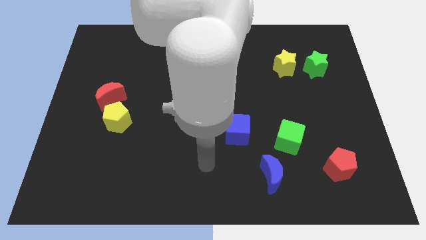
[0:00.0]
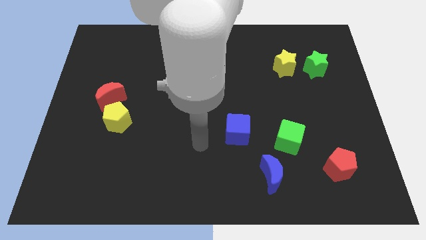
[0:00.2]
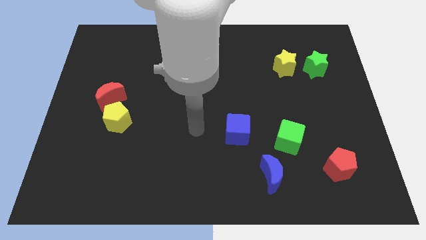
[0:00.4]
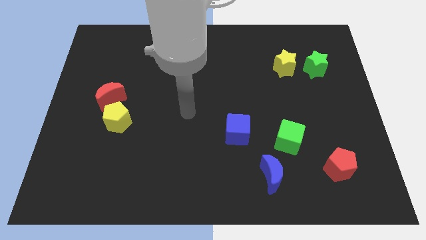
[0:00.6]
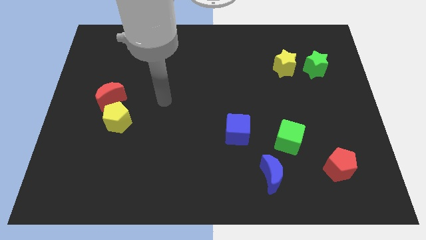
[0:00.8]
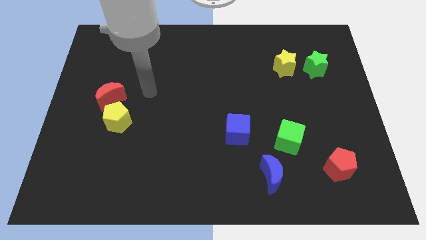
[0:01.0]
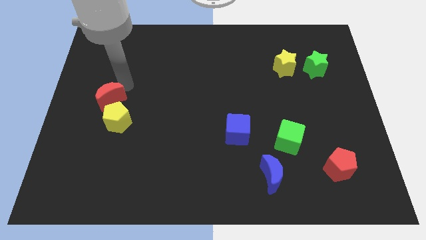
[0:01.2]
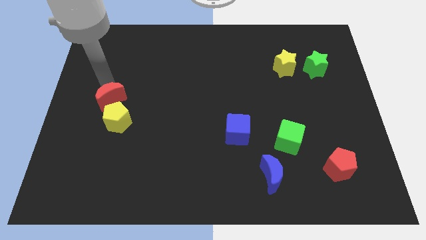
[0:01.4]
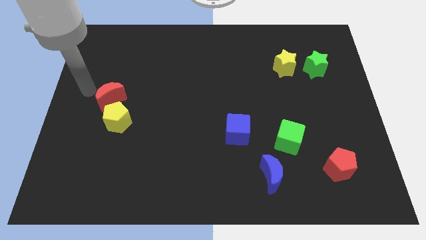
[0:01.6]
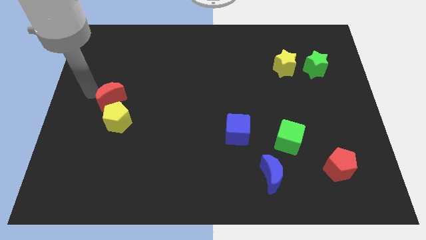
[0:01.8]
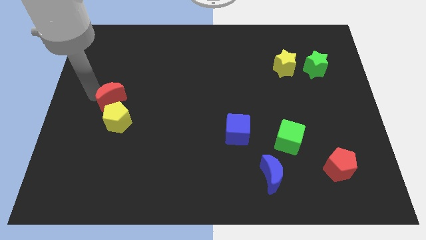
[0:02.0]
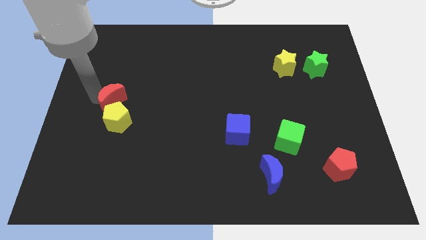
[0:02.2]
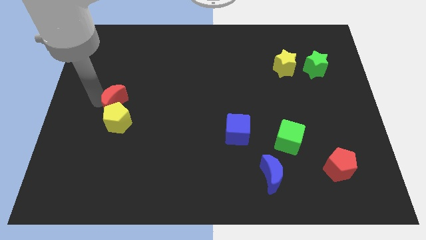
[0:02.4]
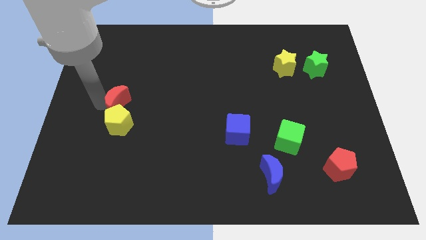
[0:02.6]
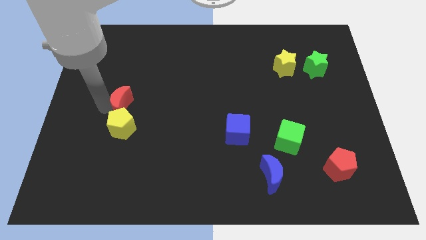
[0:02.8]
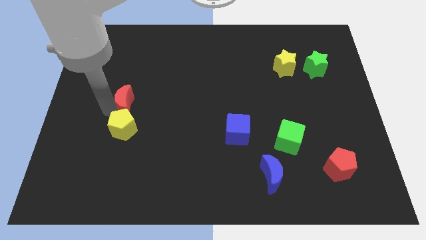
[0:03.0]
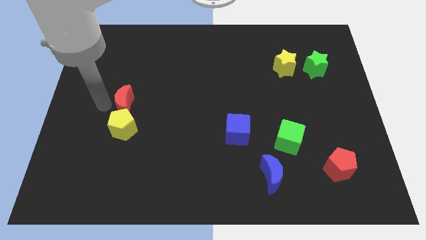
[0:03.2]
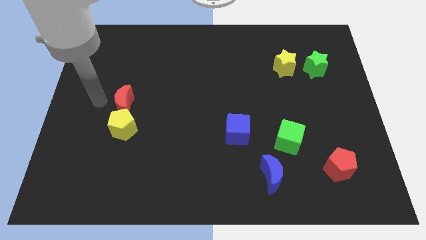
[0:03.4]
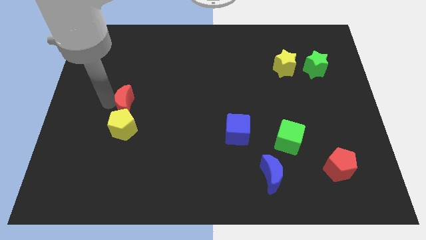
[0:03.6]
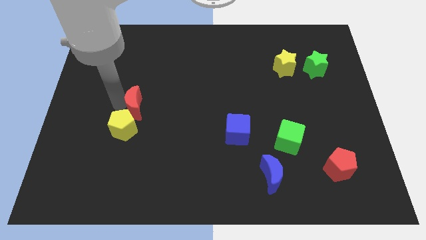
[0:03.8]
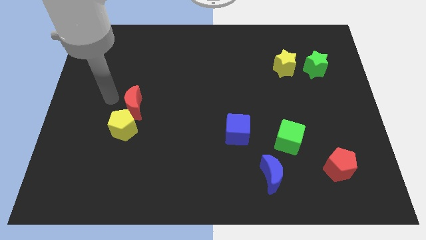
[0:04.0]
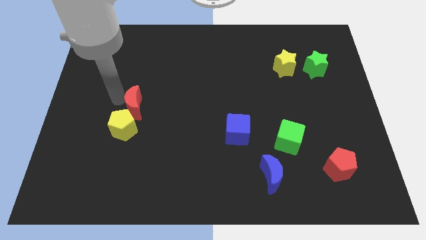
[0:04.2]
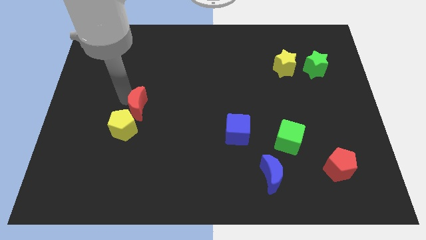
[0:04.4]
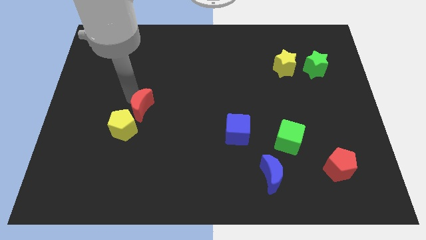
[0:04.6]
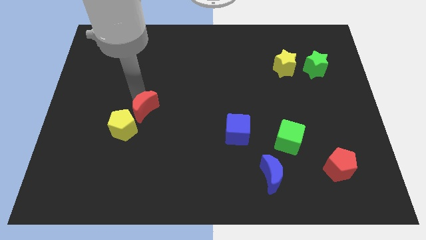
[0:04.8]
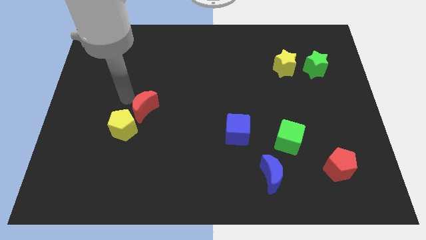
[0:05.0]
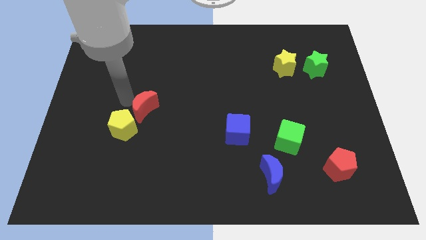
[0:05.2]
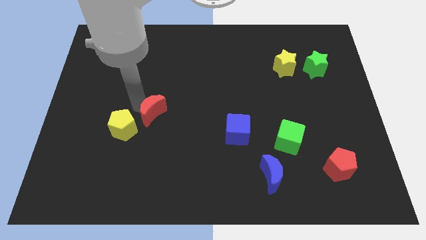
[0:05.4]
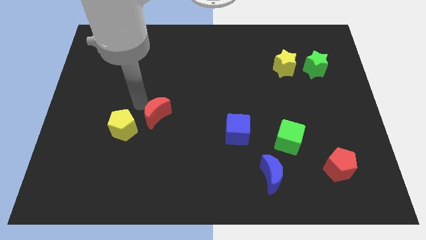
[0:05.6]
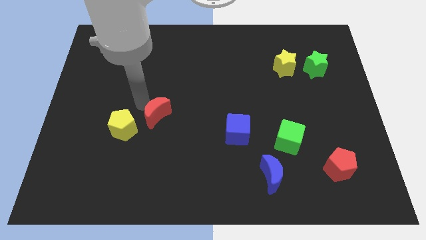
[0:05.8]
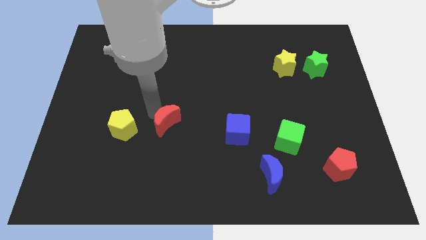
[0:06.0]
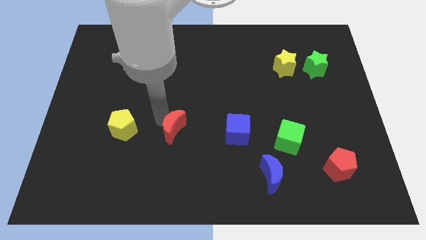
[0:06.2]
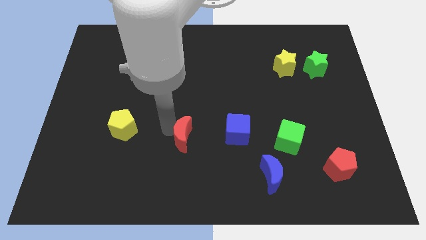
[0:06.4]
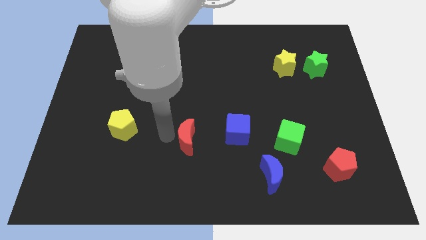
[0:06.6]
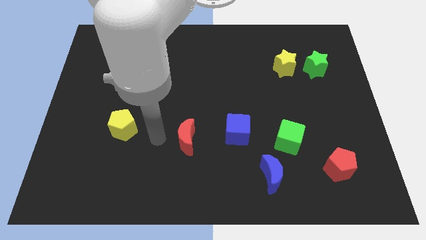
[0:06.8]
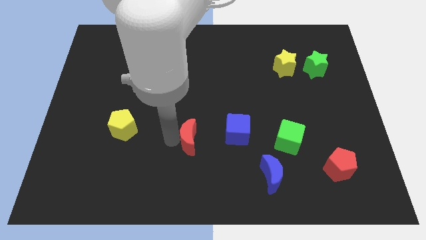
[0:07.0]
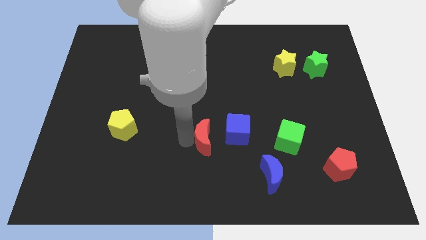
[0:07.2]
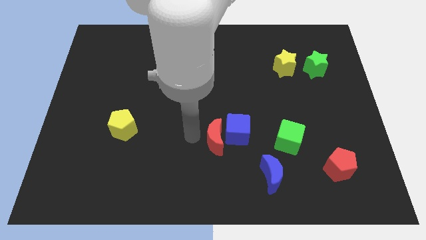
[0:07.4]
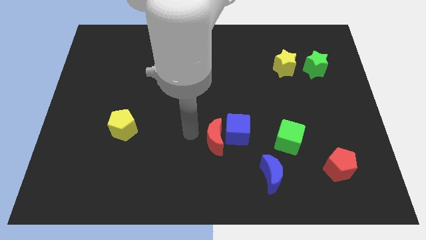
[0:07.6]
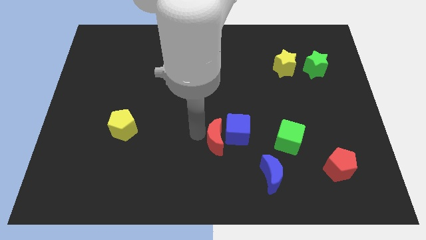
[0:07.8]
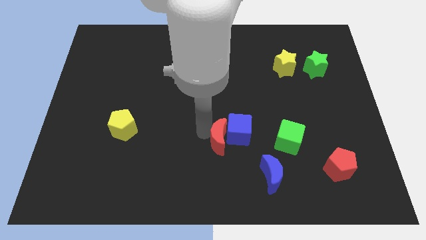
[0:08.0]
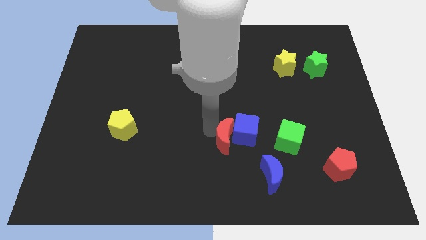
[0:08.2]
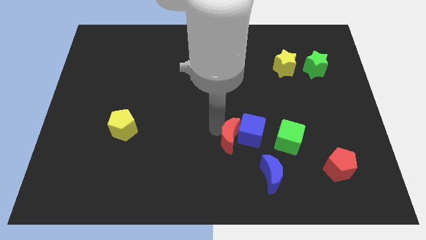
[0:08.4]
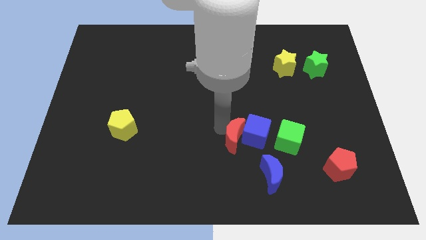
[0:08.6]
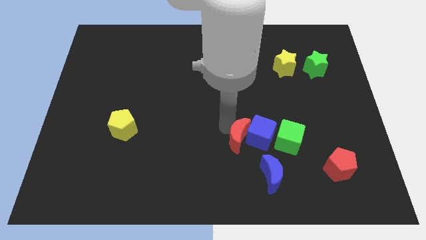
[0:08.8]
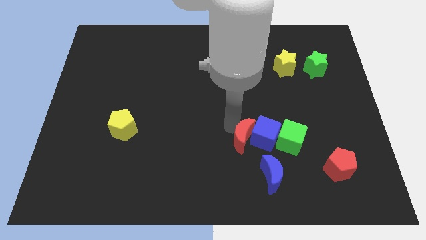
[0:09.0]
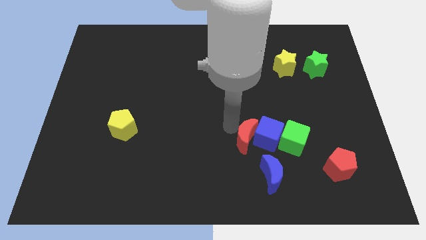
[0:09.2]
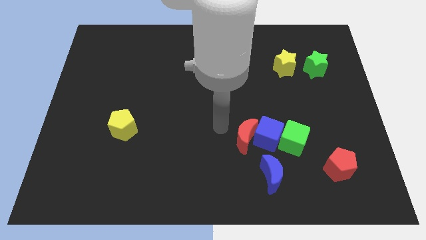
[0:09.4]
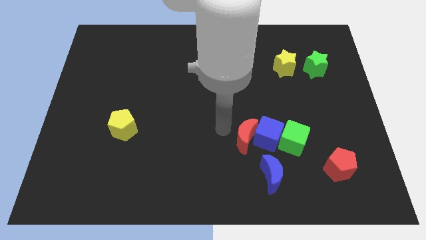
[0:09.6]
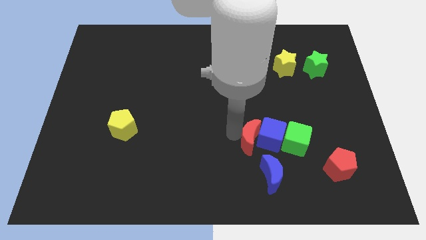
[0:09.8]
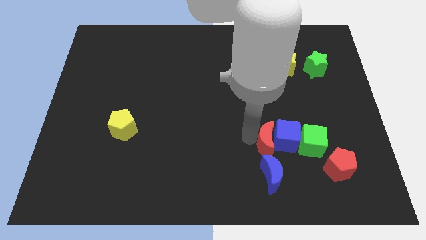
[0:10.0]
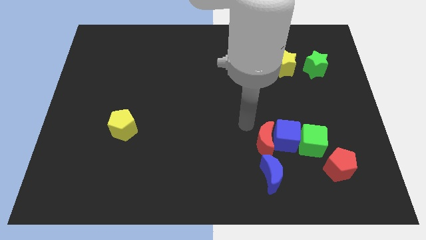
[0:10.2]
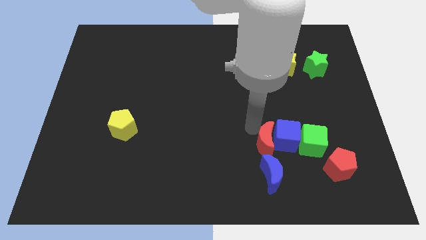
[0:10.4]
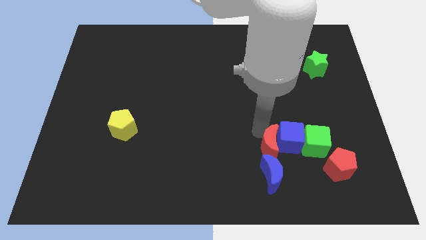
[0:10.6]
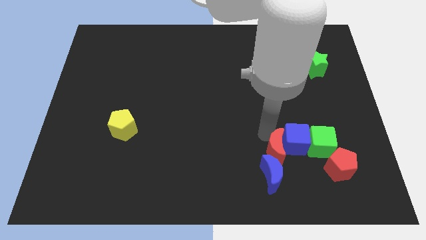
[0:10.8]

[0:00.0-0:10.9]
put the red moon to the left of the red pentagon

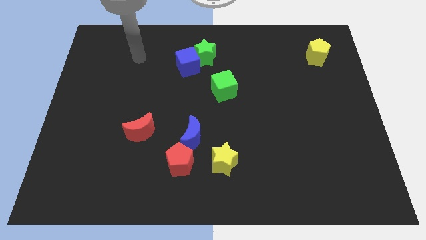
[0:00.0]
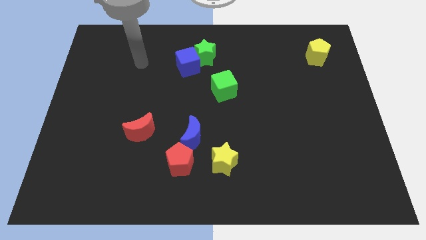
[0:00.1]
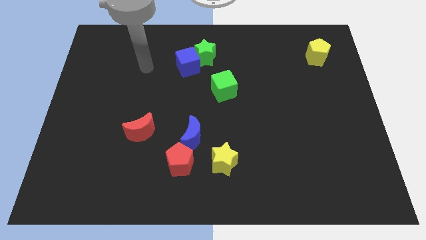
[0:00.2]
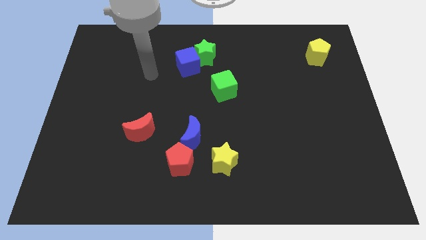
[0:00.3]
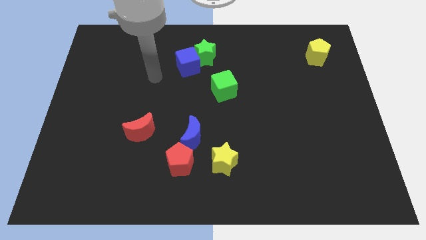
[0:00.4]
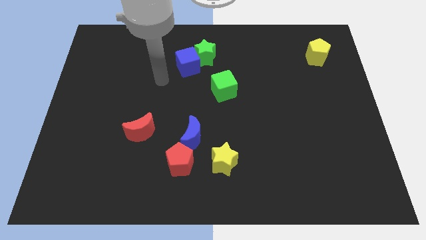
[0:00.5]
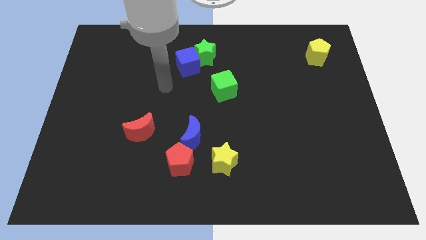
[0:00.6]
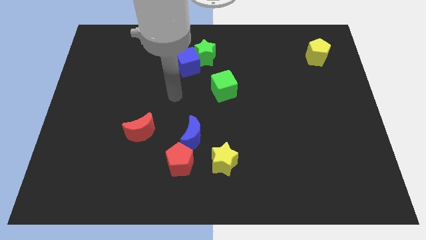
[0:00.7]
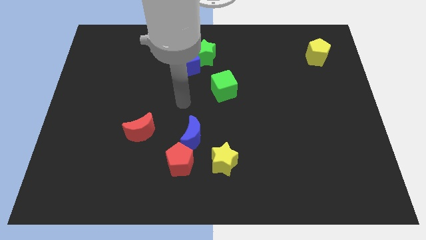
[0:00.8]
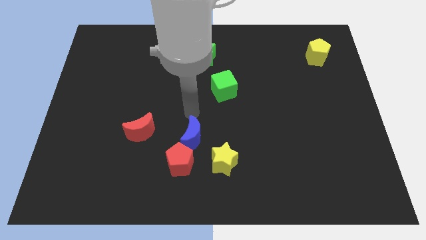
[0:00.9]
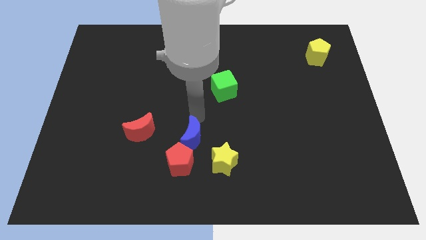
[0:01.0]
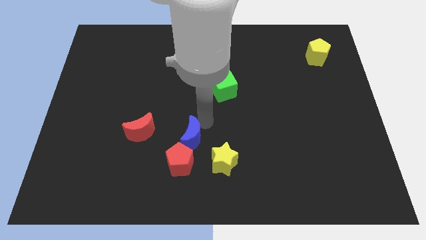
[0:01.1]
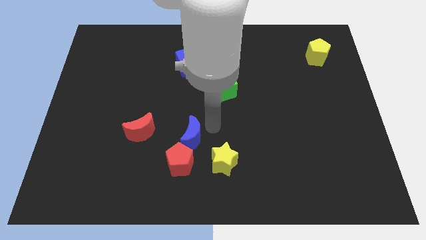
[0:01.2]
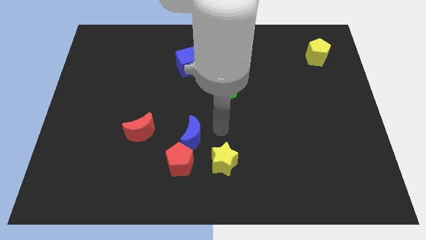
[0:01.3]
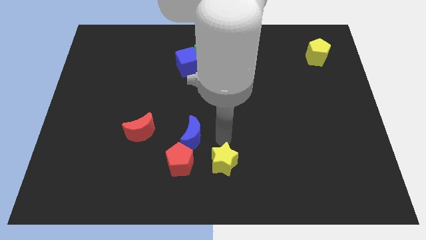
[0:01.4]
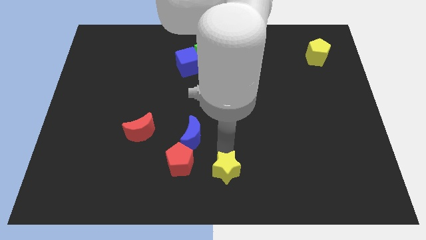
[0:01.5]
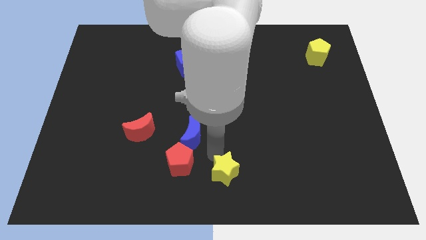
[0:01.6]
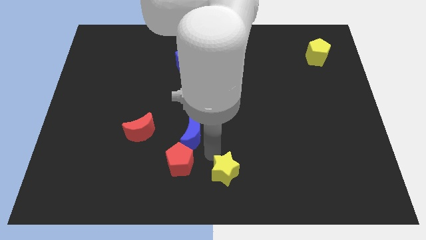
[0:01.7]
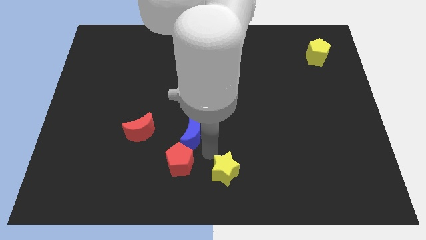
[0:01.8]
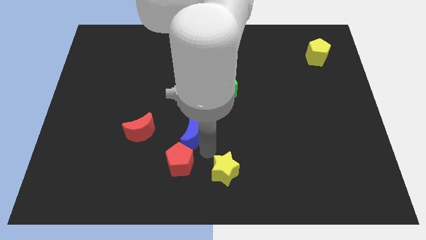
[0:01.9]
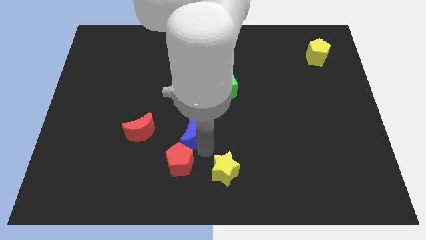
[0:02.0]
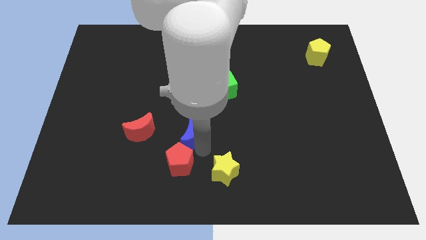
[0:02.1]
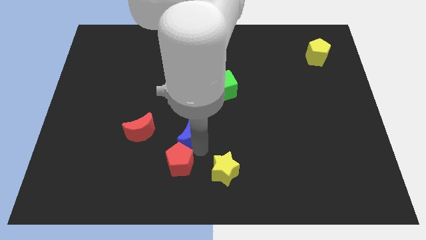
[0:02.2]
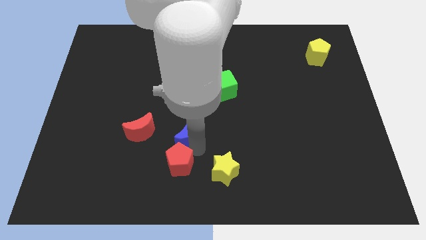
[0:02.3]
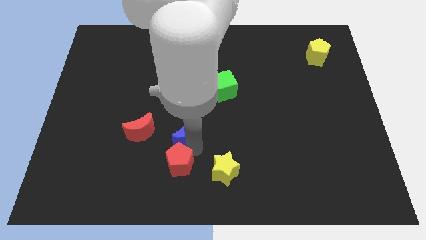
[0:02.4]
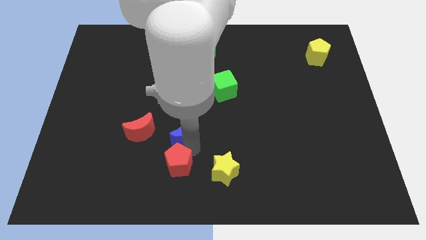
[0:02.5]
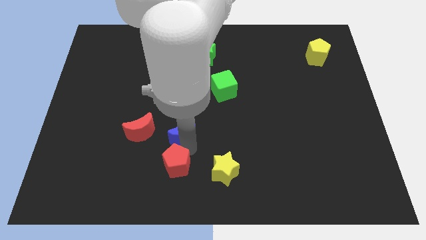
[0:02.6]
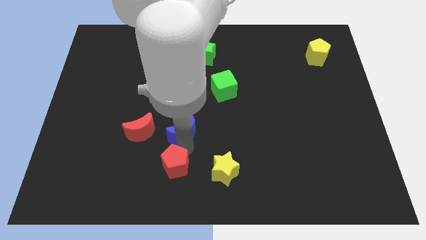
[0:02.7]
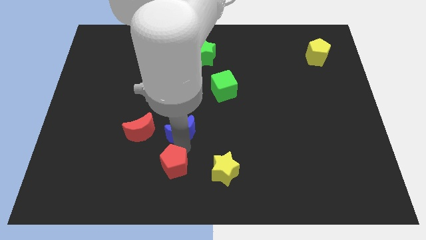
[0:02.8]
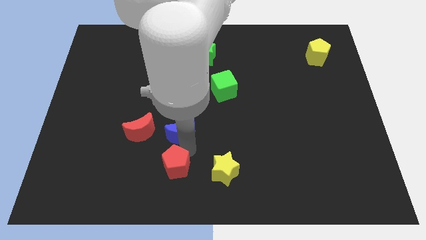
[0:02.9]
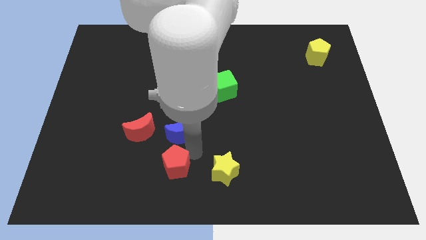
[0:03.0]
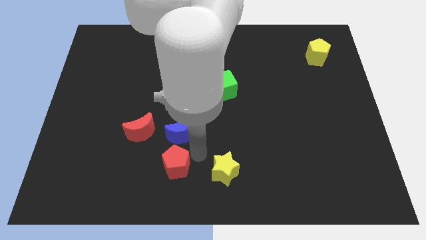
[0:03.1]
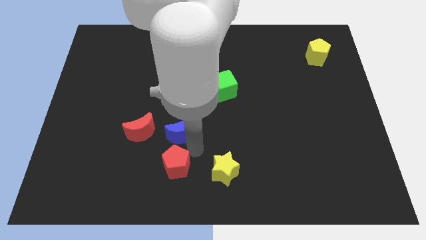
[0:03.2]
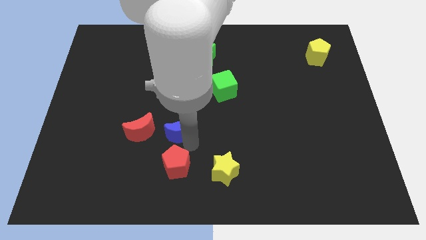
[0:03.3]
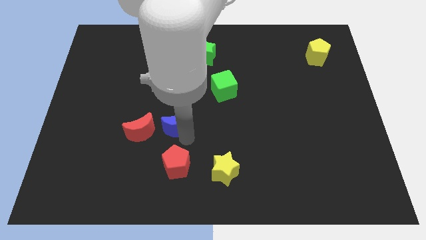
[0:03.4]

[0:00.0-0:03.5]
slide the blue moon to the top right side of the red moon
